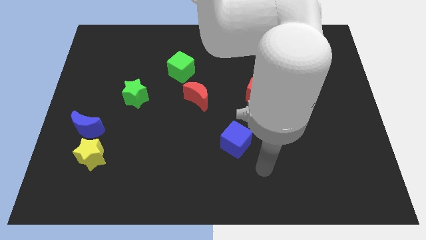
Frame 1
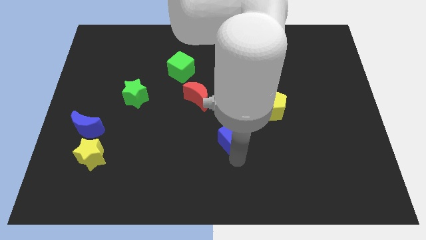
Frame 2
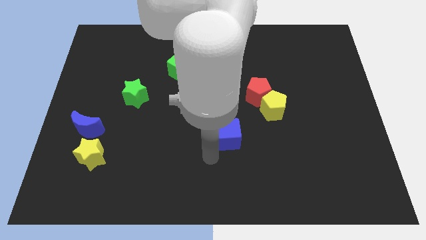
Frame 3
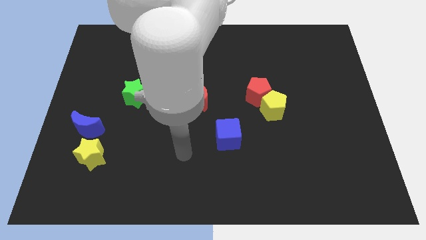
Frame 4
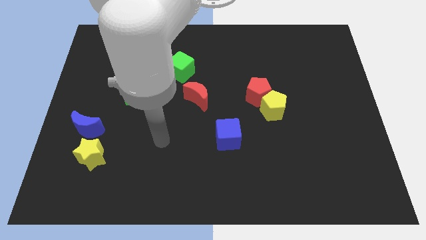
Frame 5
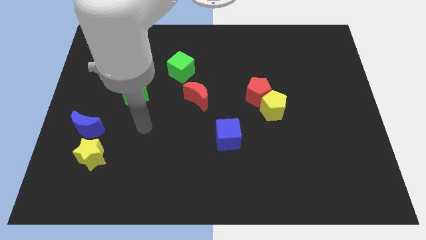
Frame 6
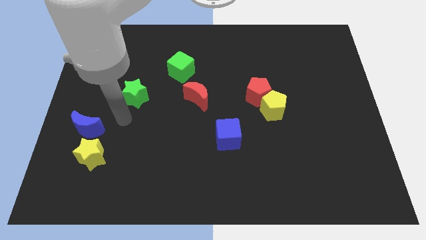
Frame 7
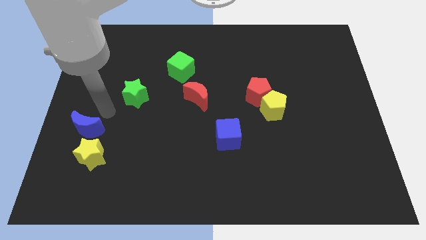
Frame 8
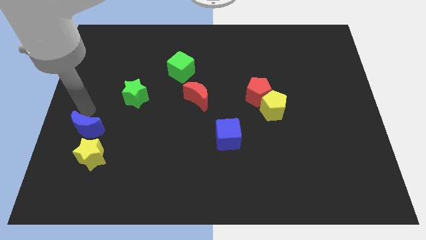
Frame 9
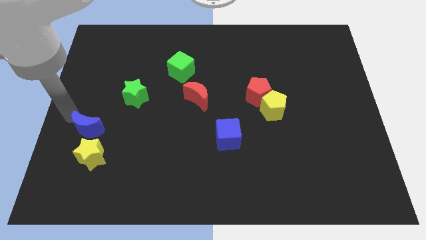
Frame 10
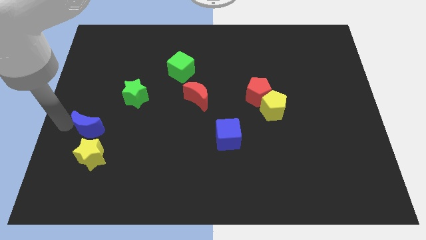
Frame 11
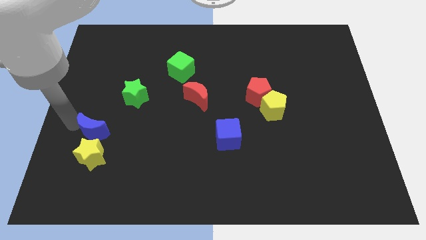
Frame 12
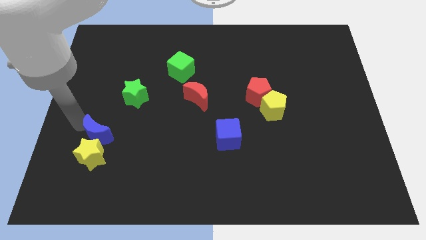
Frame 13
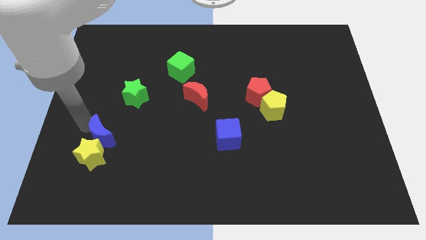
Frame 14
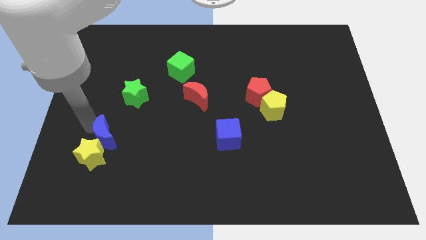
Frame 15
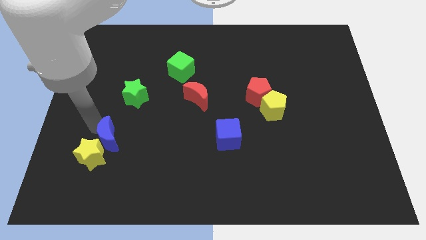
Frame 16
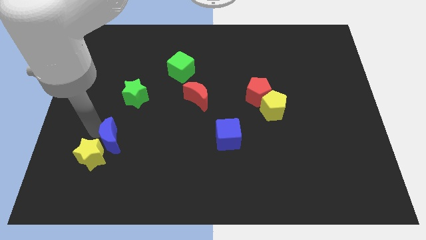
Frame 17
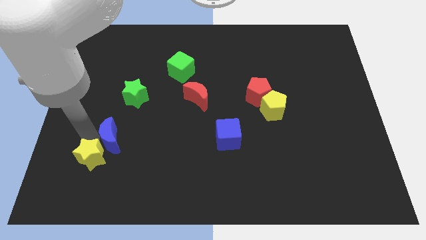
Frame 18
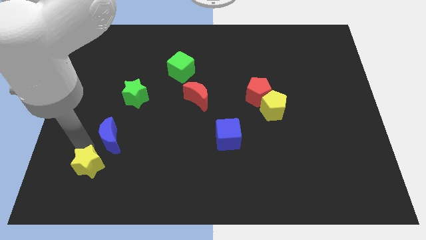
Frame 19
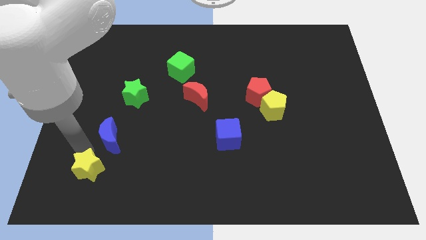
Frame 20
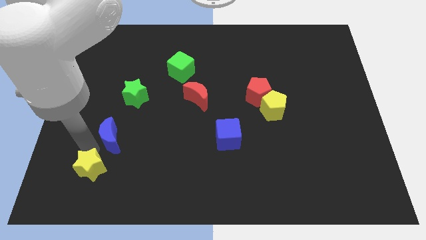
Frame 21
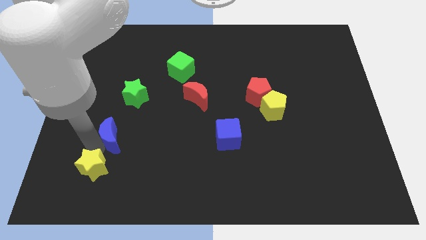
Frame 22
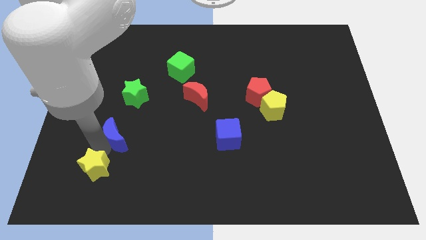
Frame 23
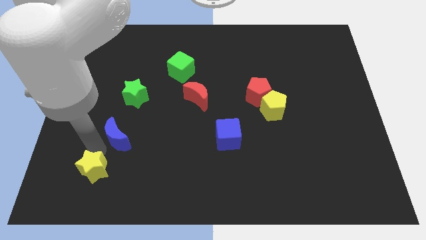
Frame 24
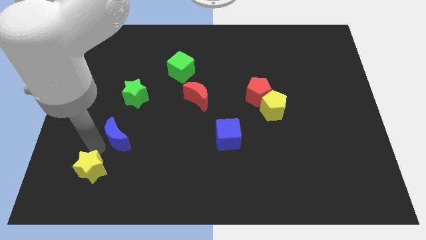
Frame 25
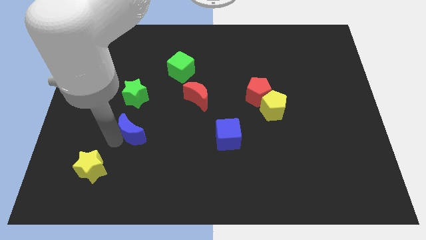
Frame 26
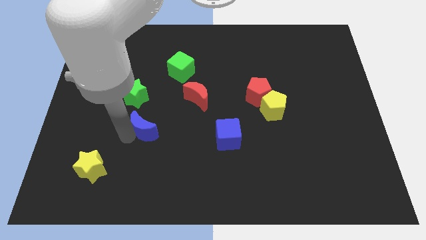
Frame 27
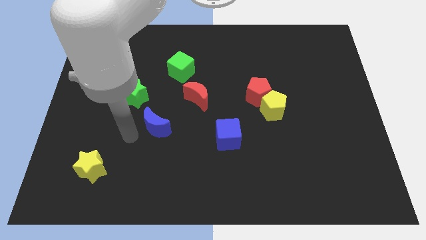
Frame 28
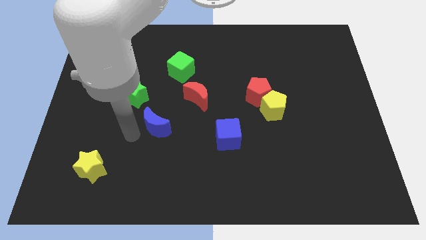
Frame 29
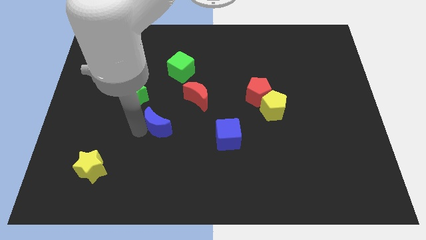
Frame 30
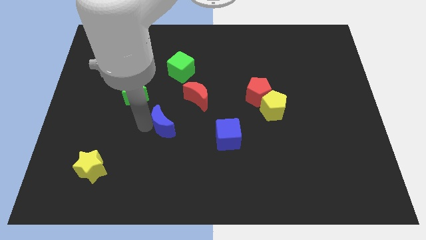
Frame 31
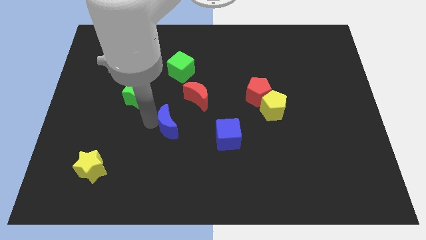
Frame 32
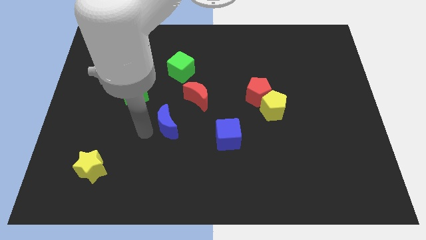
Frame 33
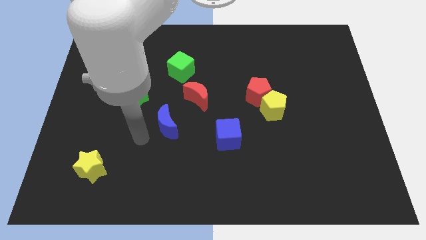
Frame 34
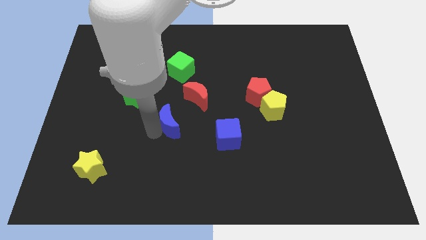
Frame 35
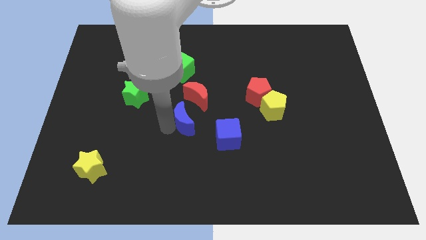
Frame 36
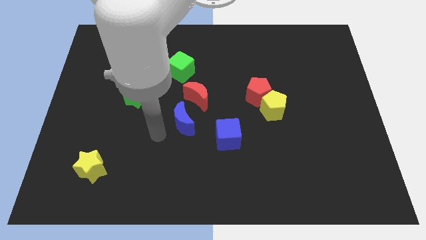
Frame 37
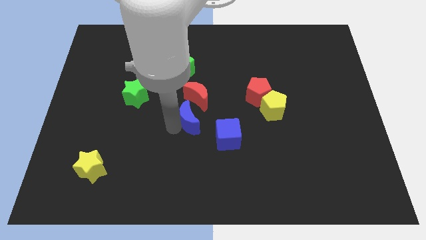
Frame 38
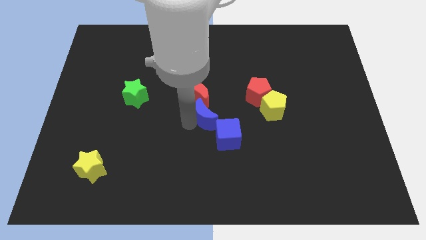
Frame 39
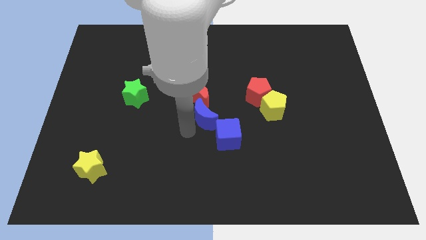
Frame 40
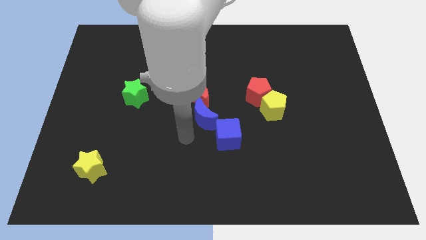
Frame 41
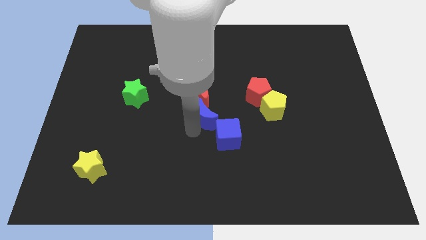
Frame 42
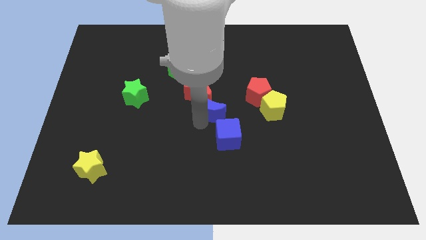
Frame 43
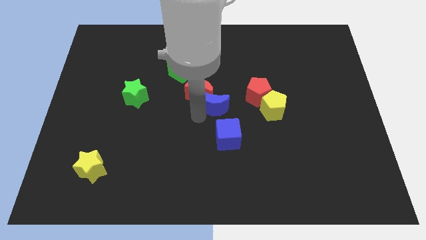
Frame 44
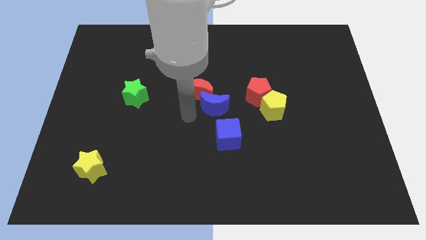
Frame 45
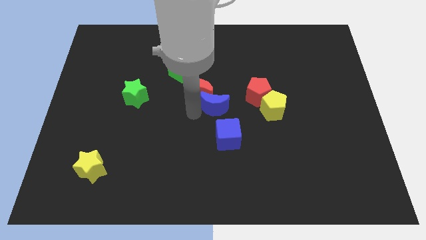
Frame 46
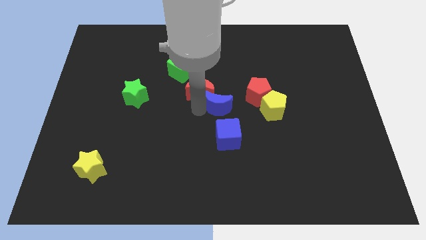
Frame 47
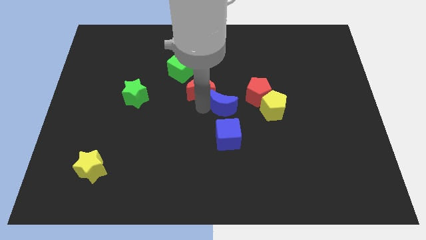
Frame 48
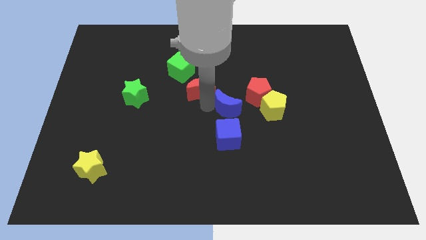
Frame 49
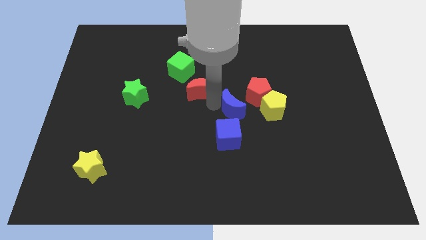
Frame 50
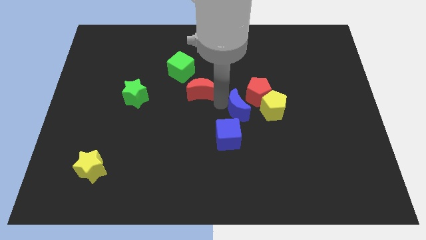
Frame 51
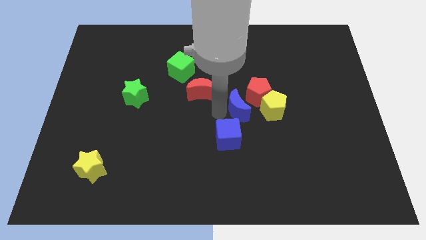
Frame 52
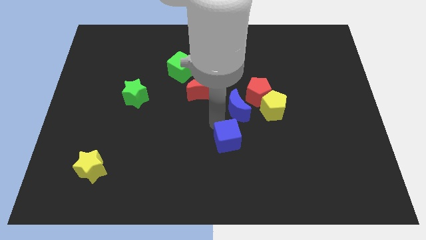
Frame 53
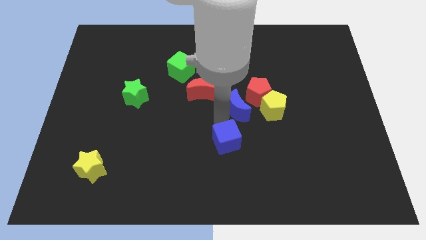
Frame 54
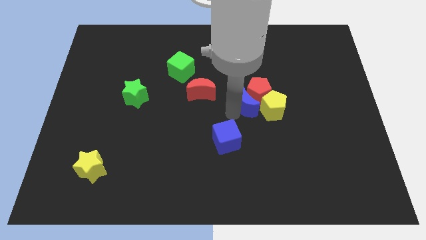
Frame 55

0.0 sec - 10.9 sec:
push the blue moon towards the red pentagon

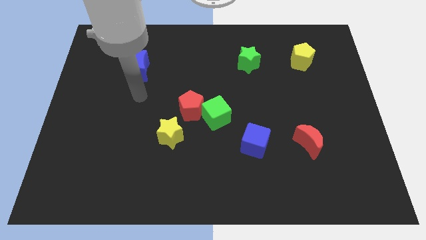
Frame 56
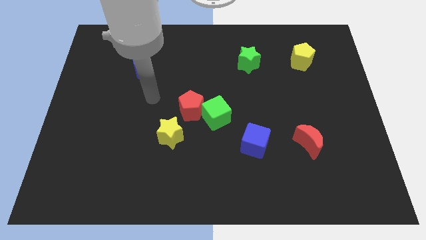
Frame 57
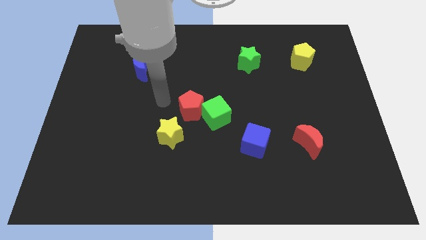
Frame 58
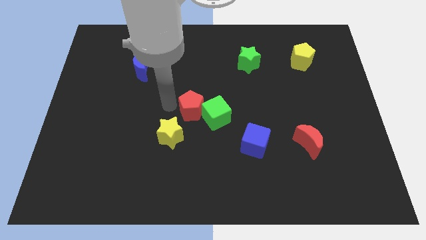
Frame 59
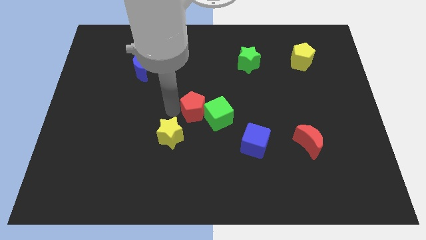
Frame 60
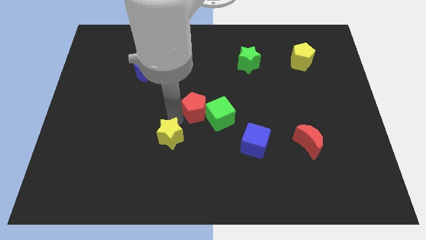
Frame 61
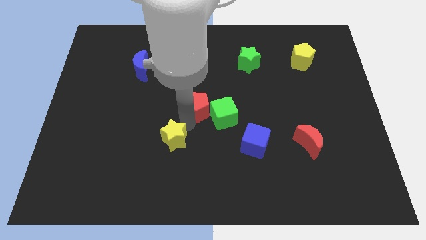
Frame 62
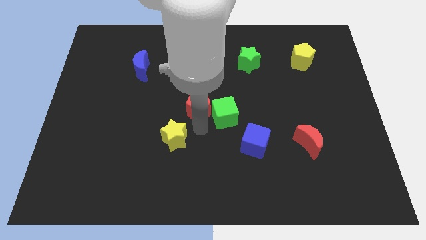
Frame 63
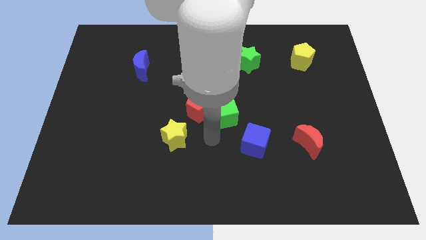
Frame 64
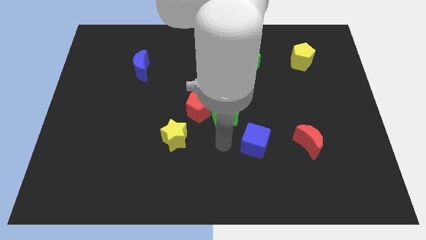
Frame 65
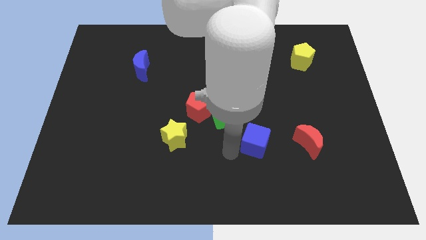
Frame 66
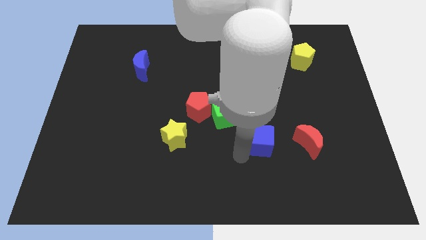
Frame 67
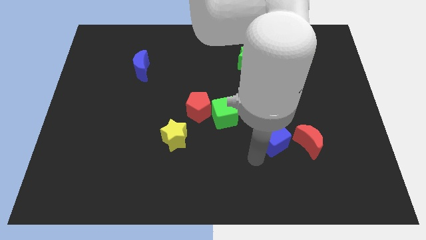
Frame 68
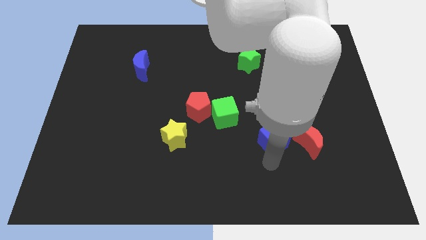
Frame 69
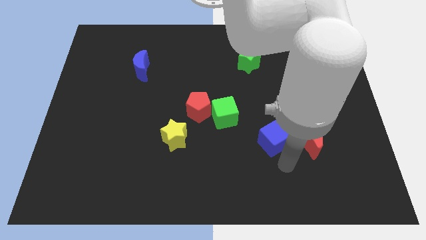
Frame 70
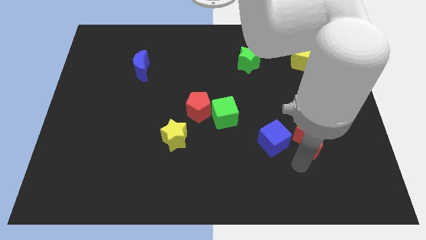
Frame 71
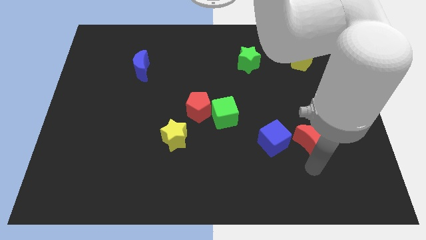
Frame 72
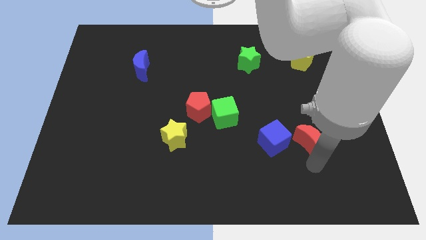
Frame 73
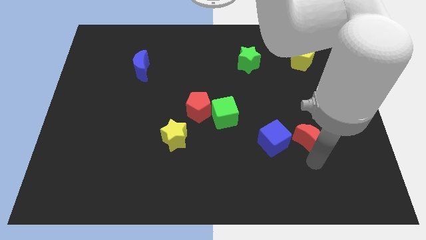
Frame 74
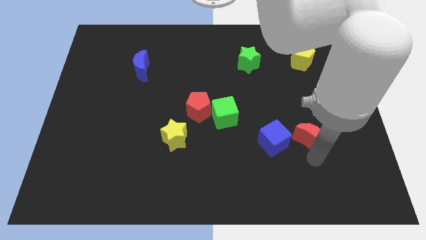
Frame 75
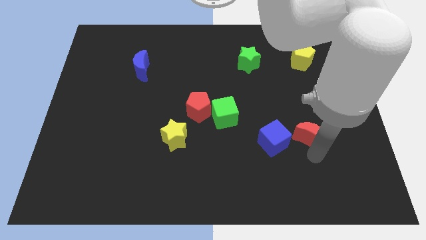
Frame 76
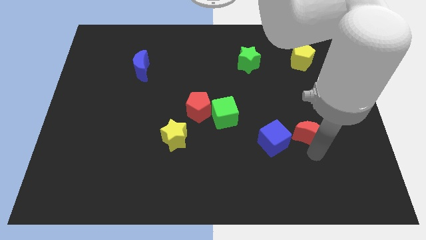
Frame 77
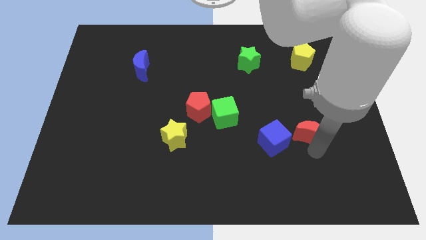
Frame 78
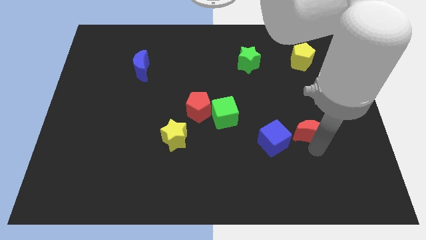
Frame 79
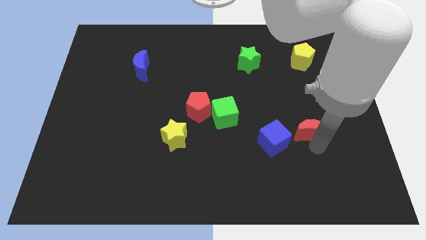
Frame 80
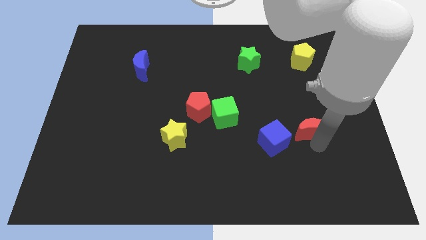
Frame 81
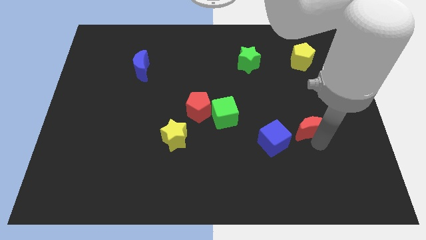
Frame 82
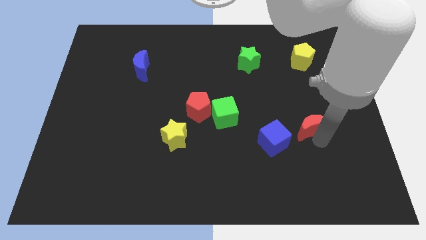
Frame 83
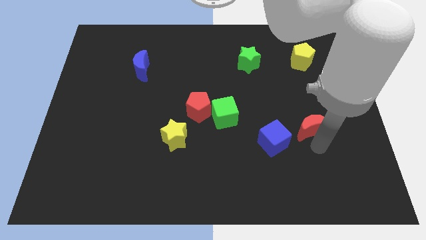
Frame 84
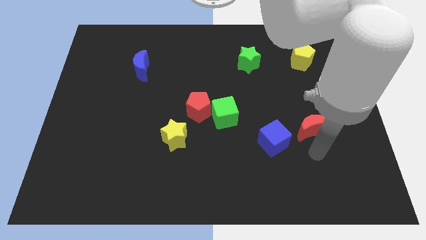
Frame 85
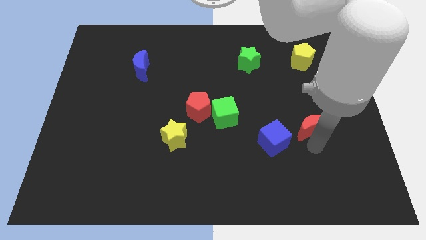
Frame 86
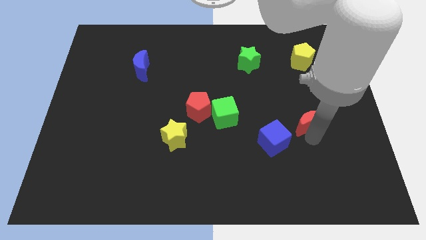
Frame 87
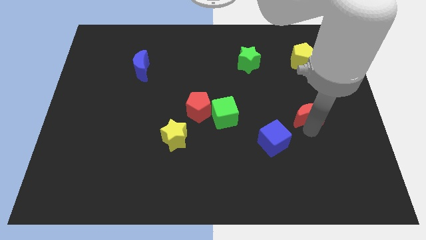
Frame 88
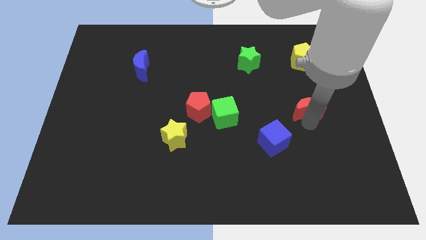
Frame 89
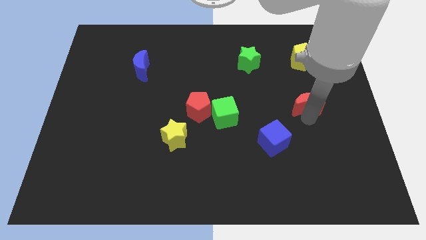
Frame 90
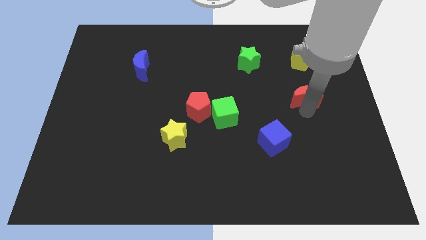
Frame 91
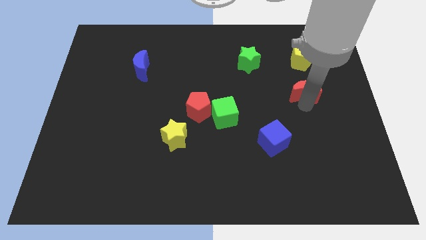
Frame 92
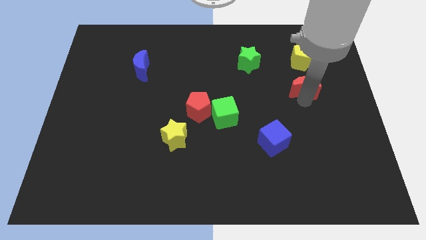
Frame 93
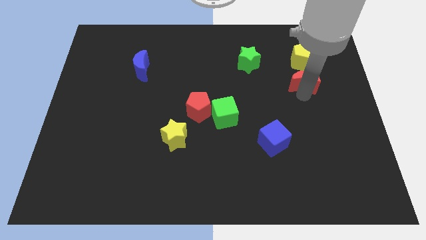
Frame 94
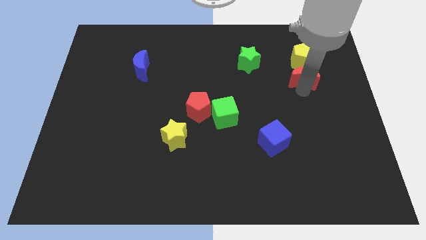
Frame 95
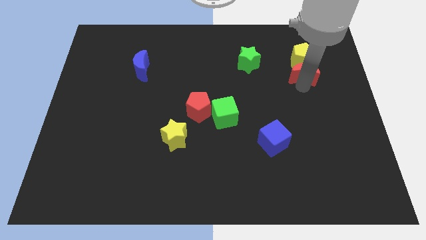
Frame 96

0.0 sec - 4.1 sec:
move the red moon next to the yellow pentagon
